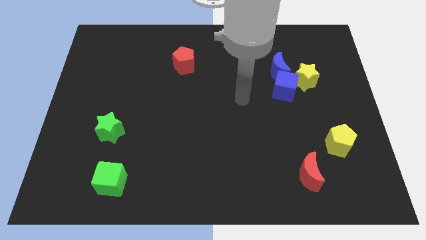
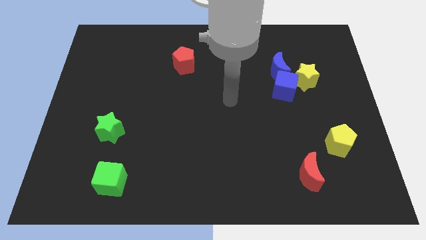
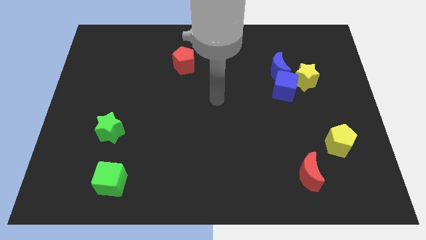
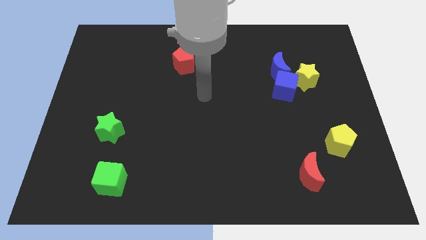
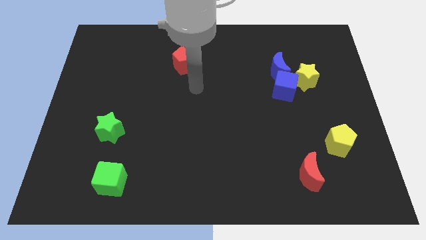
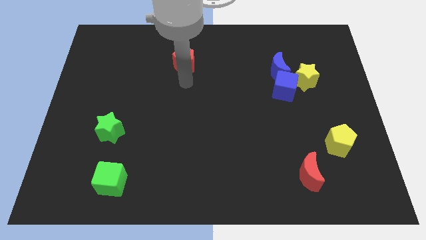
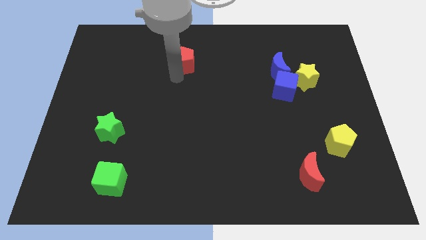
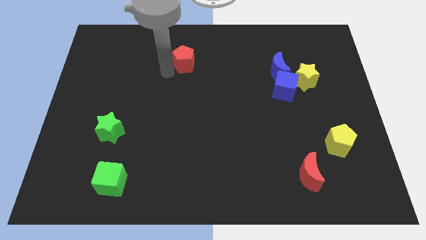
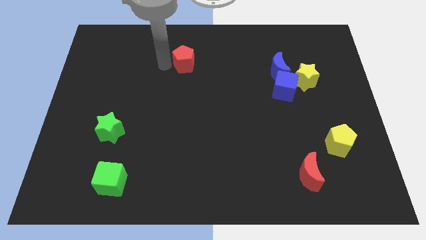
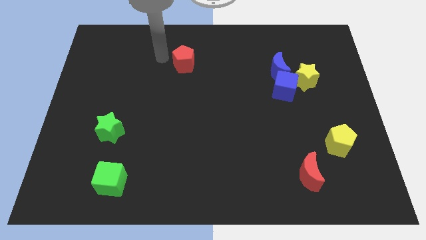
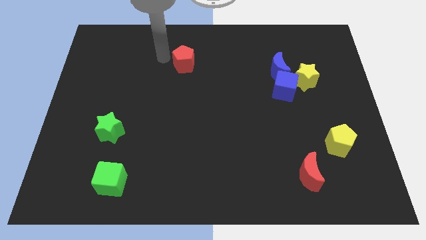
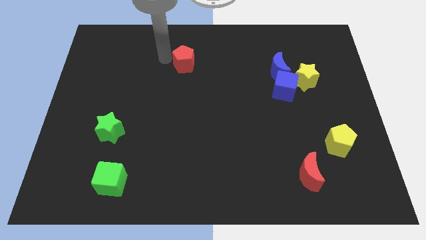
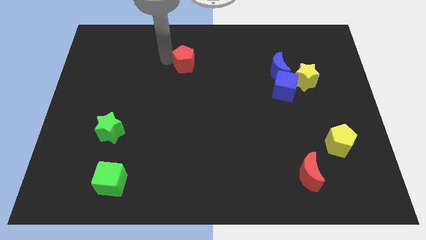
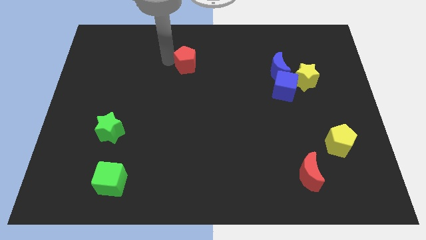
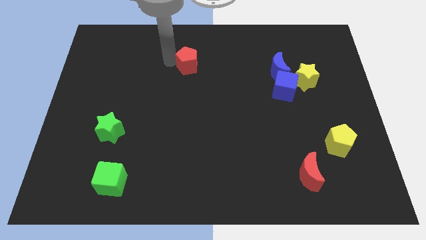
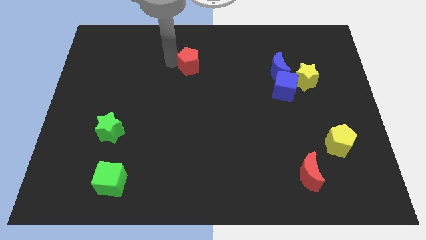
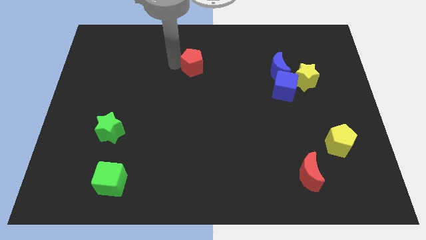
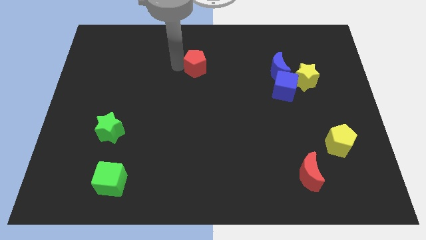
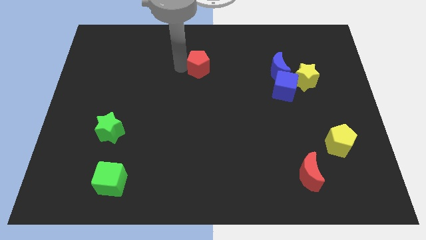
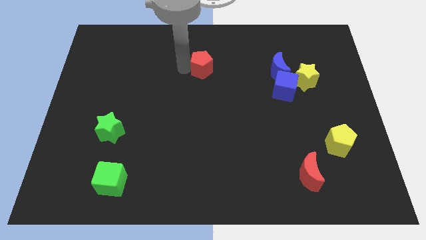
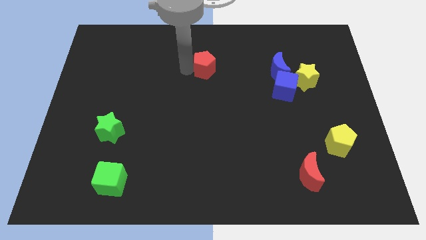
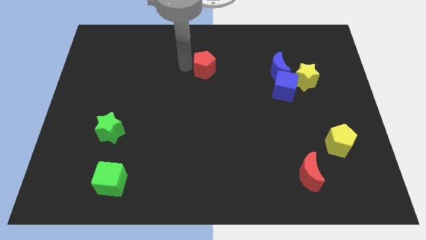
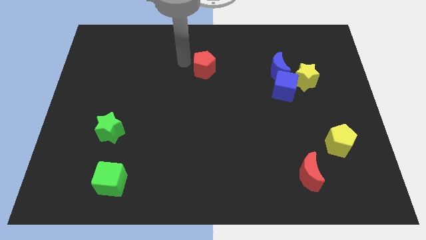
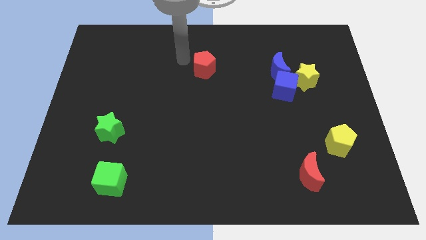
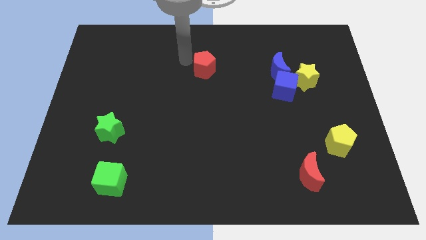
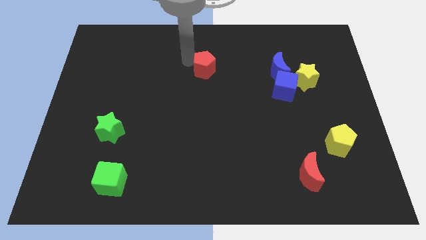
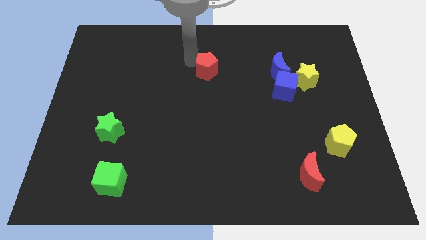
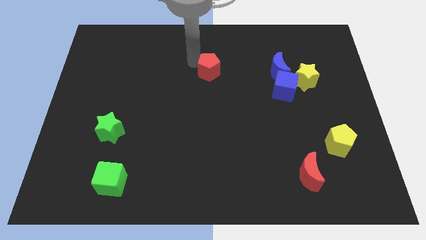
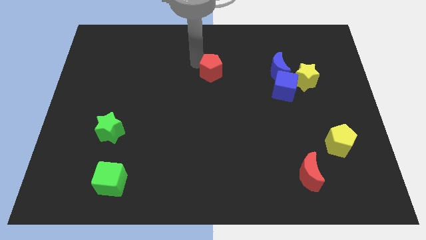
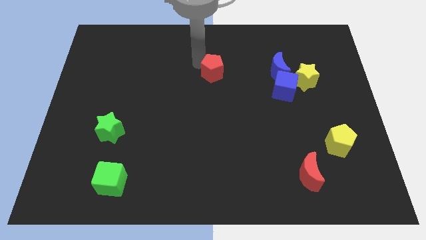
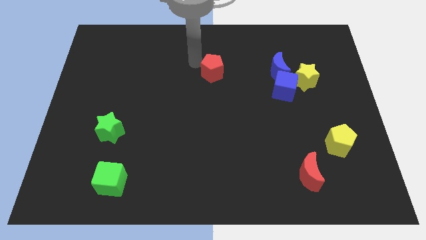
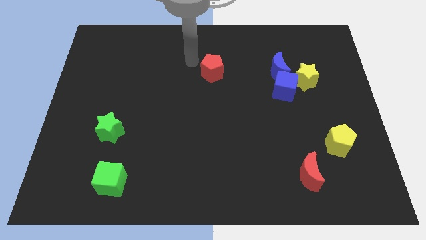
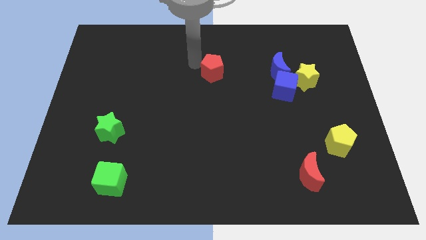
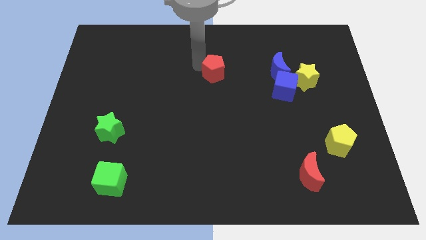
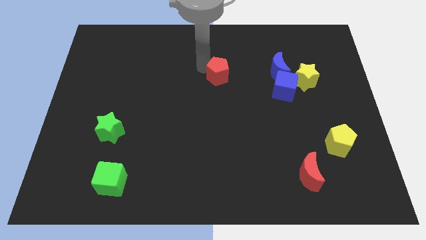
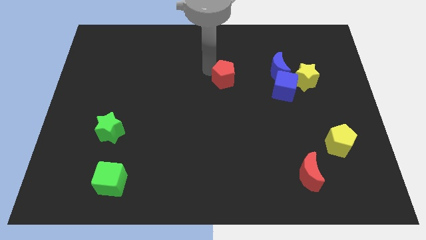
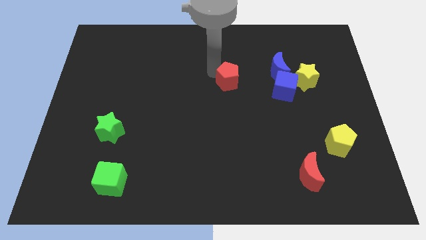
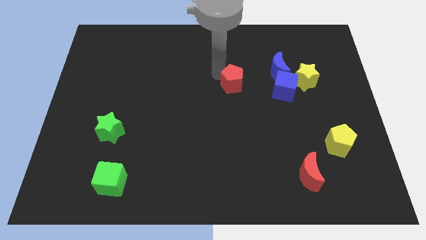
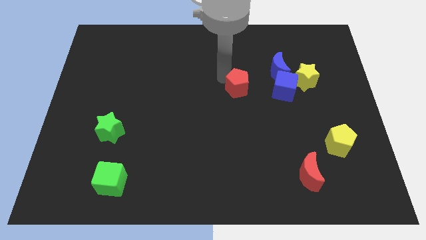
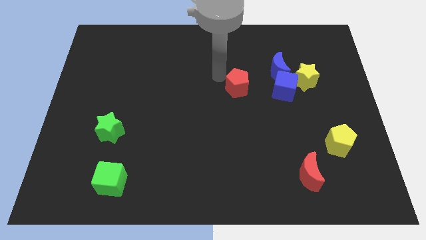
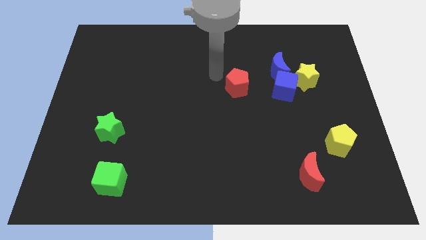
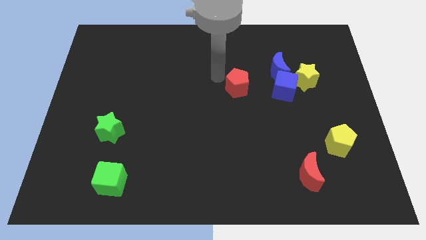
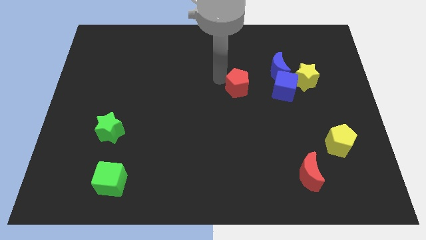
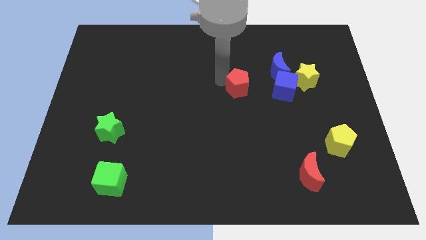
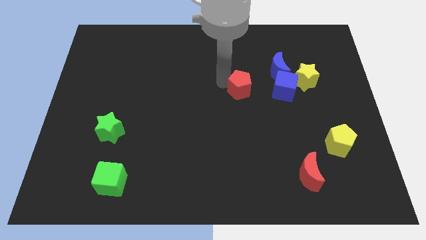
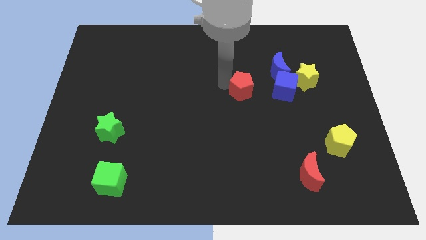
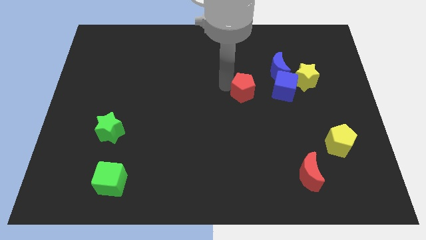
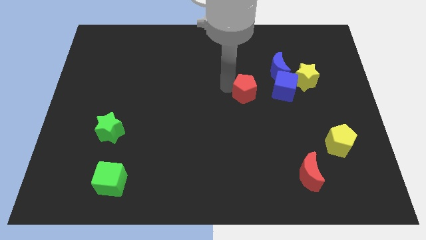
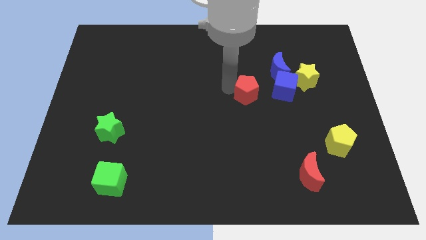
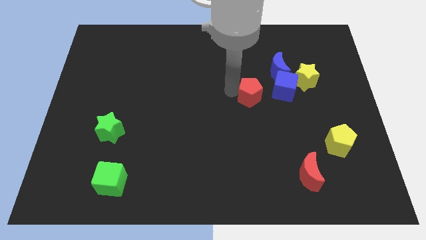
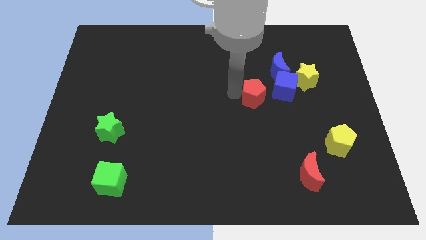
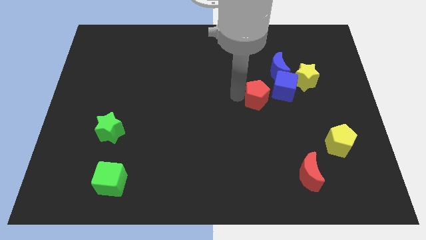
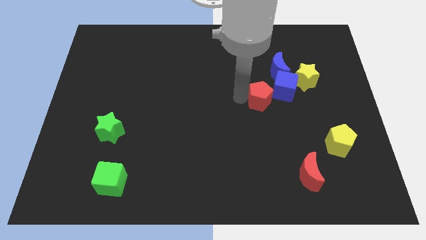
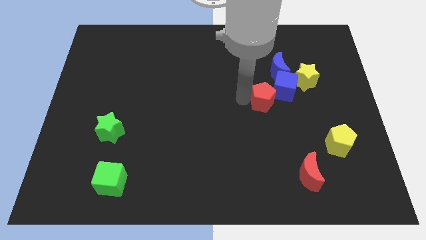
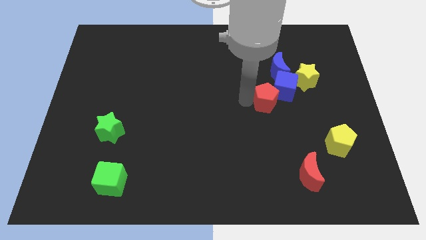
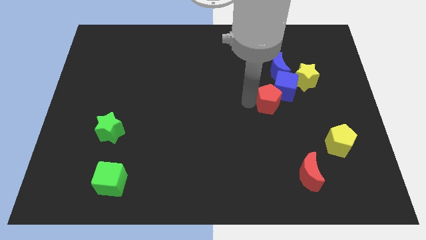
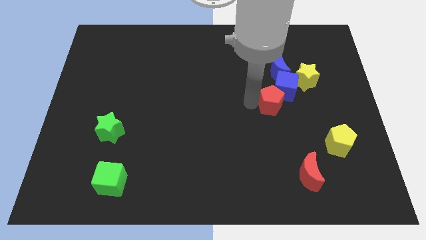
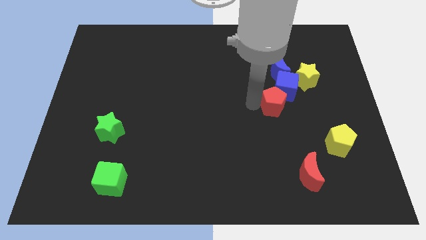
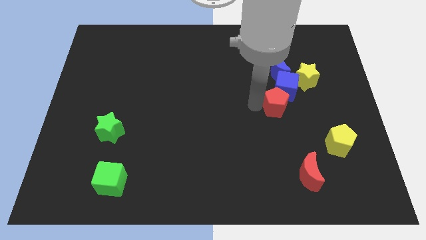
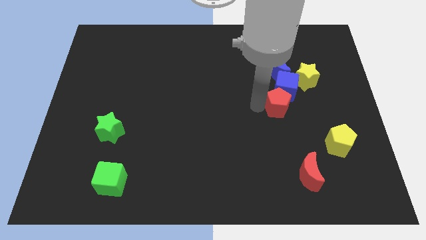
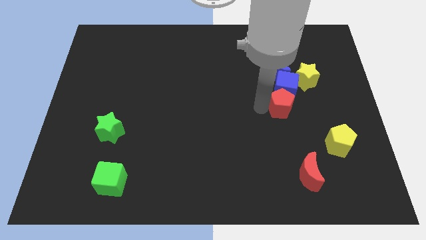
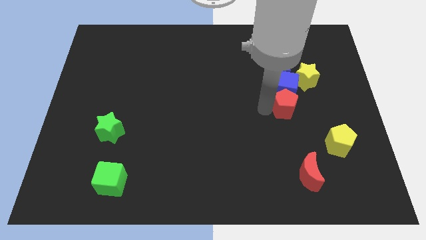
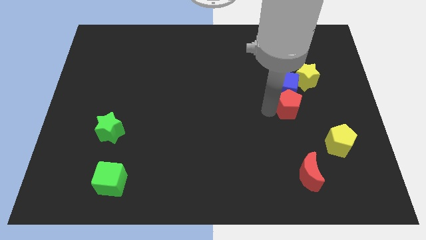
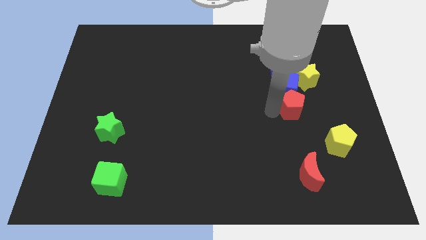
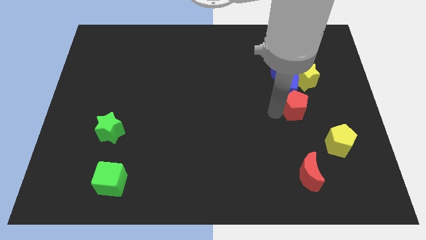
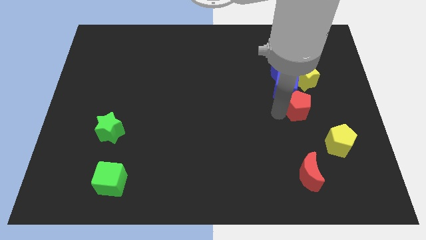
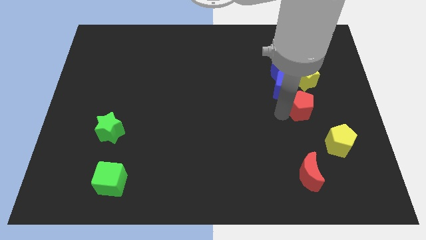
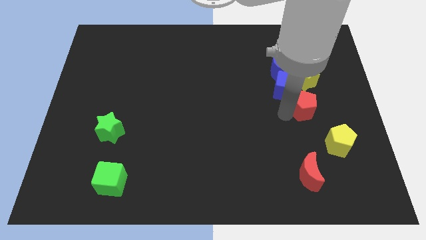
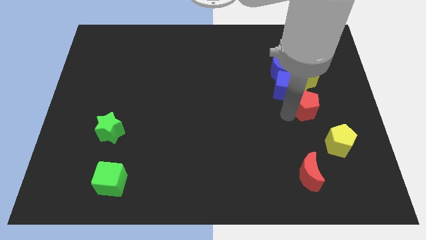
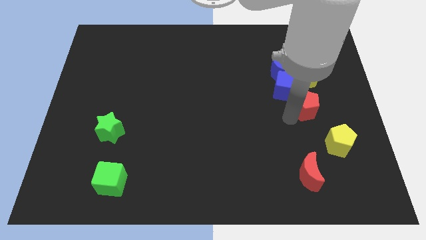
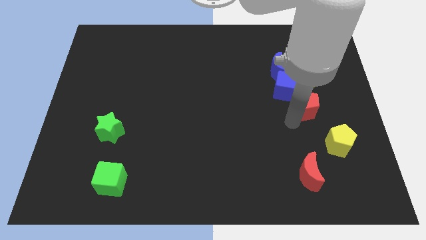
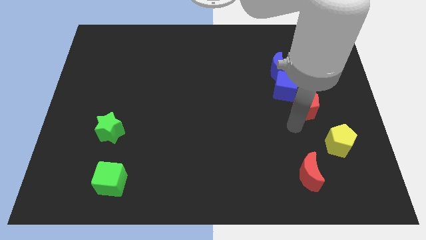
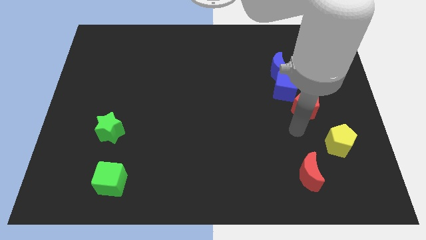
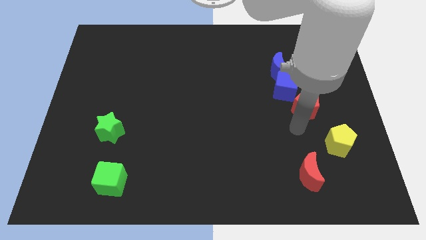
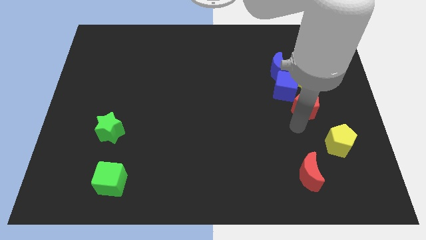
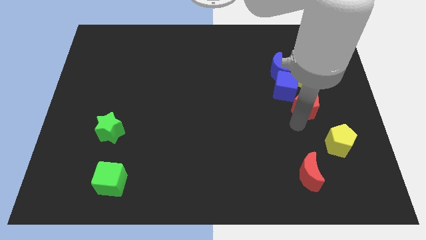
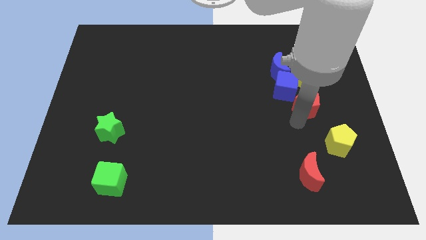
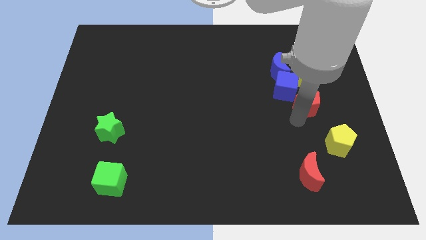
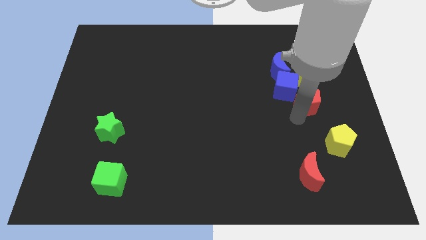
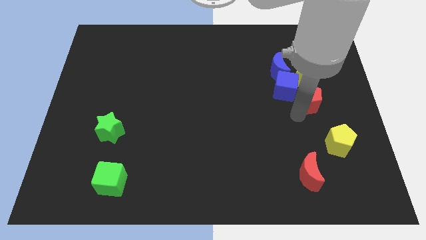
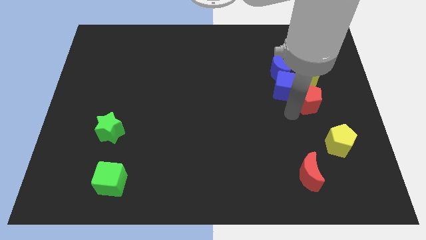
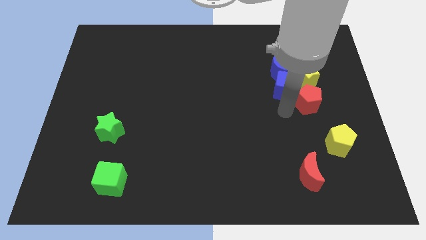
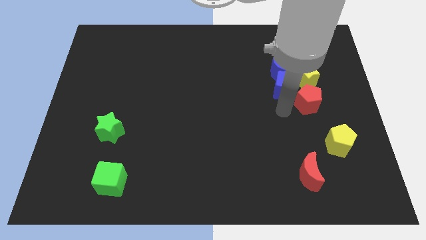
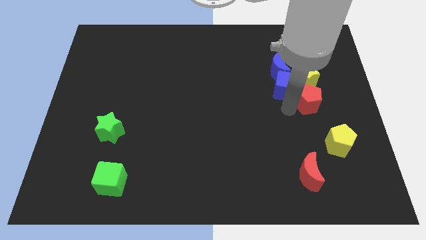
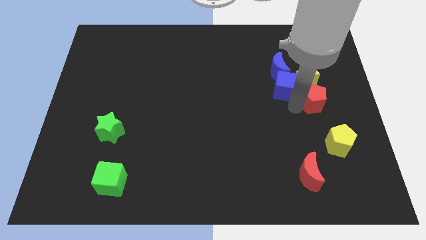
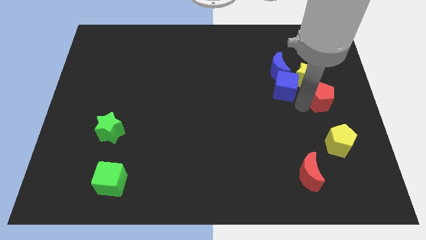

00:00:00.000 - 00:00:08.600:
put the red pentagon to the right side
